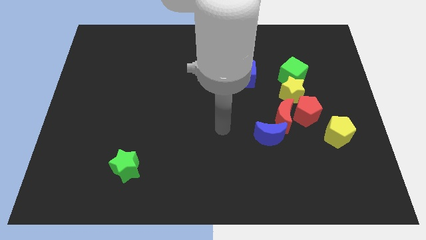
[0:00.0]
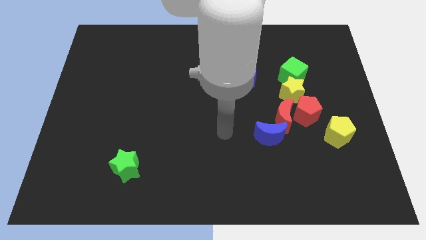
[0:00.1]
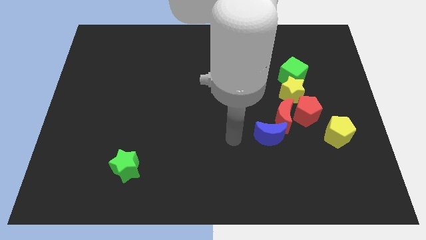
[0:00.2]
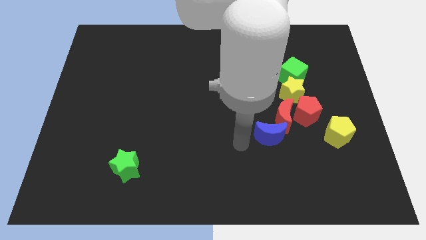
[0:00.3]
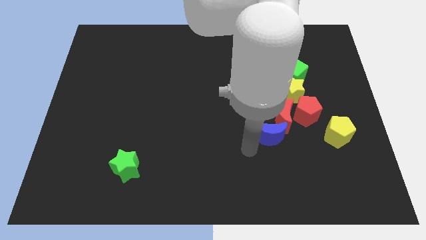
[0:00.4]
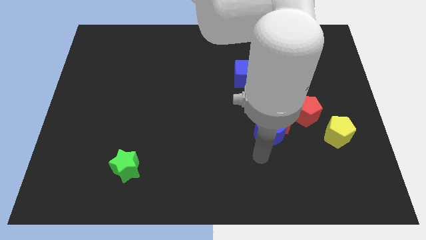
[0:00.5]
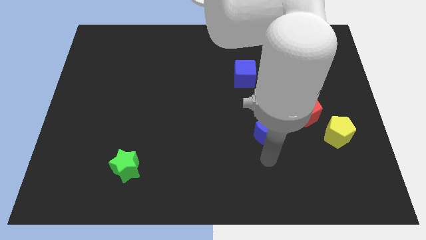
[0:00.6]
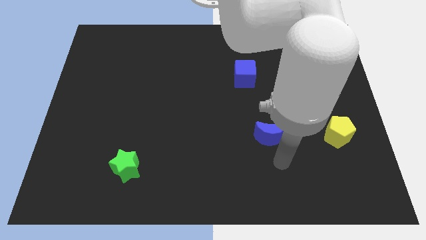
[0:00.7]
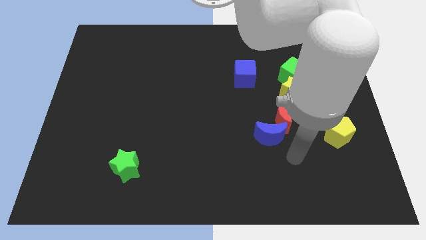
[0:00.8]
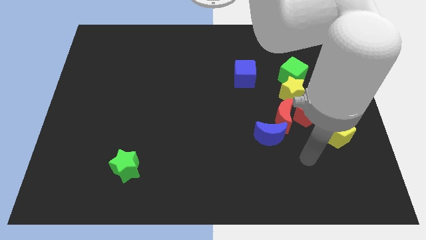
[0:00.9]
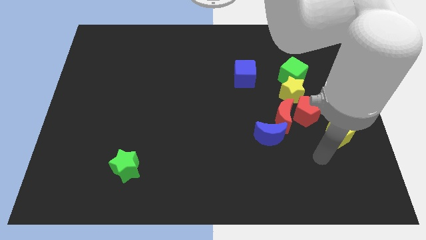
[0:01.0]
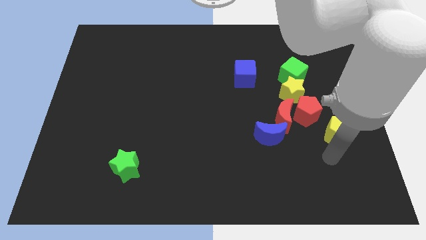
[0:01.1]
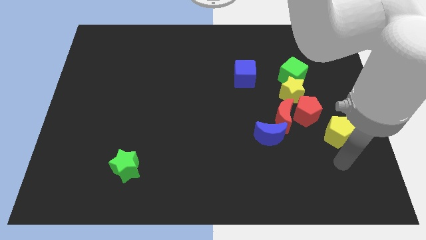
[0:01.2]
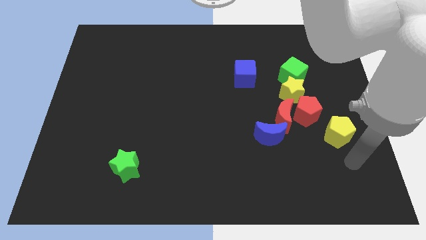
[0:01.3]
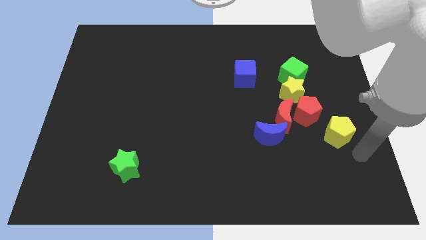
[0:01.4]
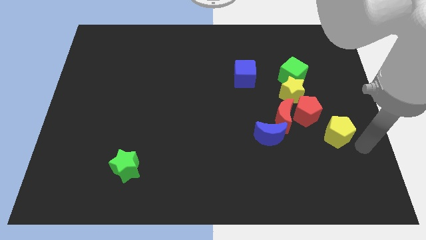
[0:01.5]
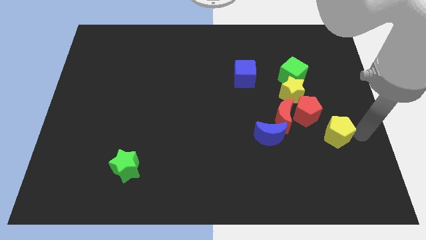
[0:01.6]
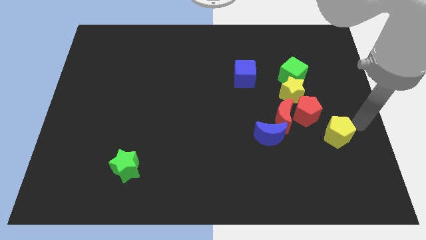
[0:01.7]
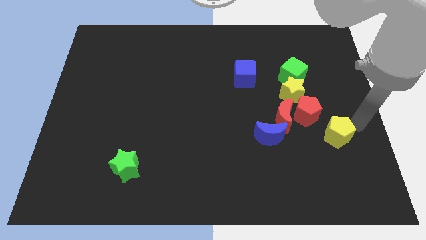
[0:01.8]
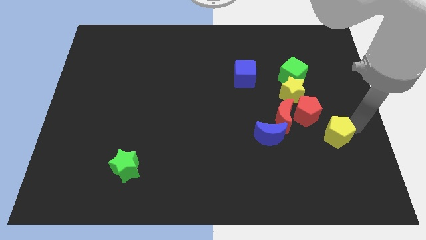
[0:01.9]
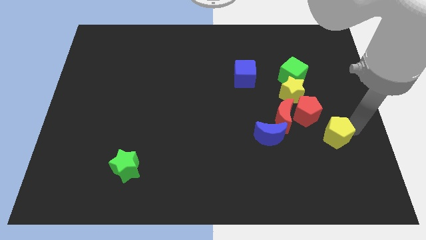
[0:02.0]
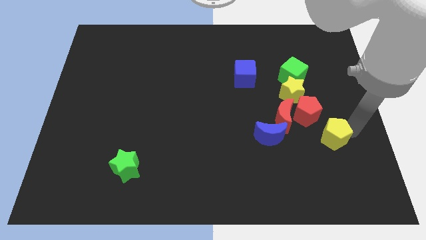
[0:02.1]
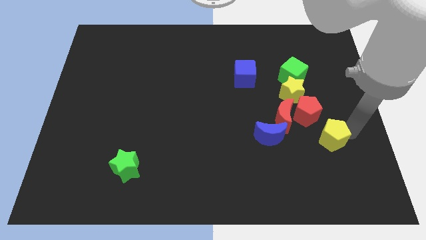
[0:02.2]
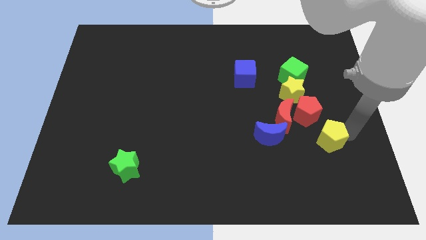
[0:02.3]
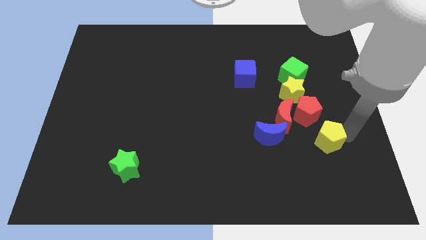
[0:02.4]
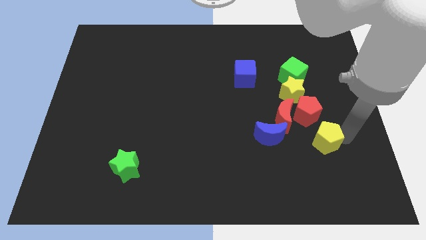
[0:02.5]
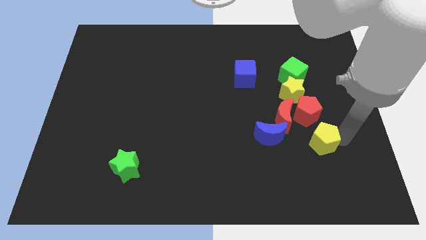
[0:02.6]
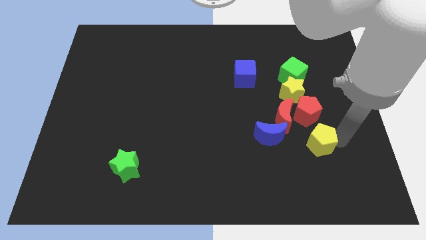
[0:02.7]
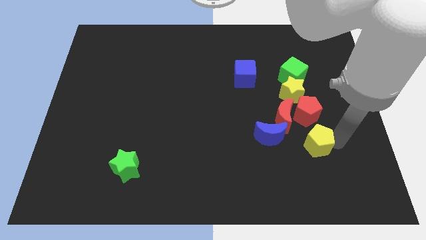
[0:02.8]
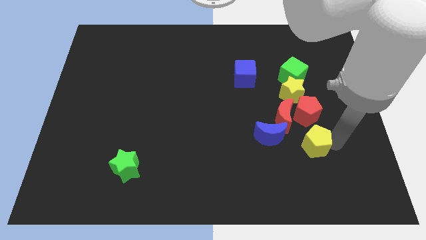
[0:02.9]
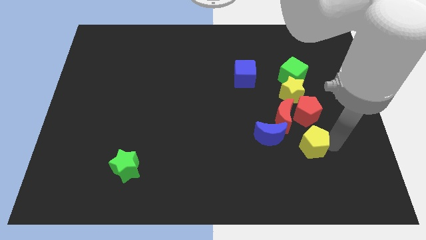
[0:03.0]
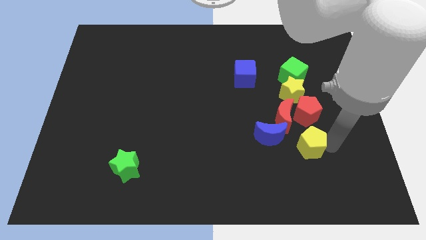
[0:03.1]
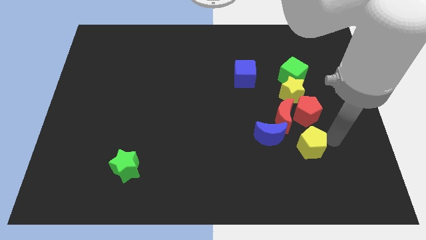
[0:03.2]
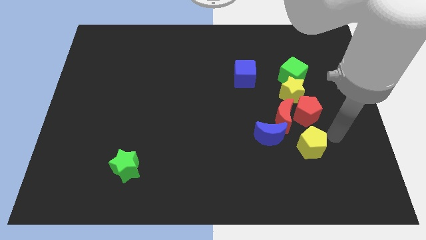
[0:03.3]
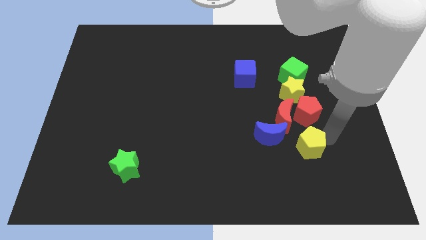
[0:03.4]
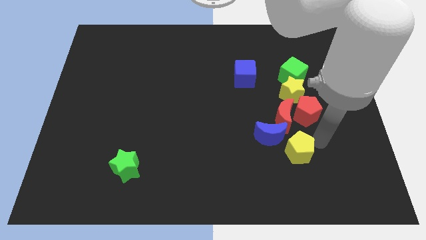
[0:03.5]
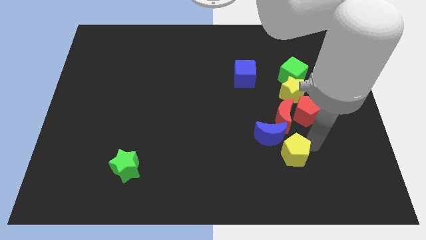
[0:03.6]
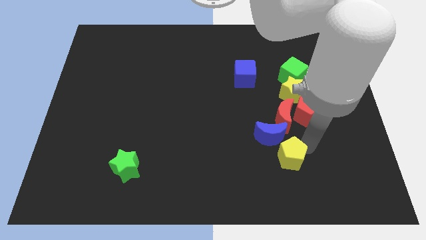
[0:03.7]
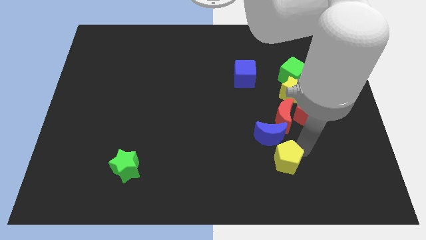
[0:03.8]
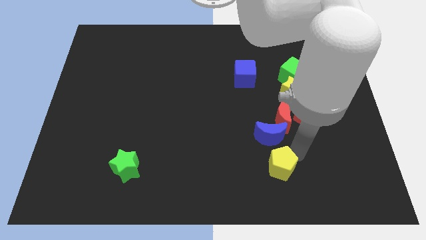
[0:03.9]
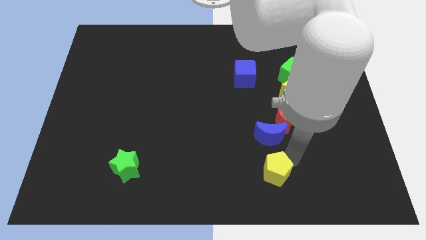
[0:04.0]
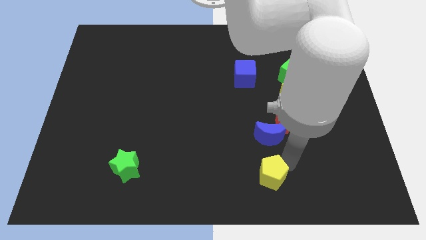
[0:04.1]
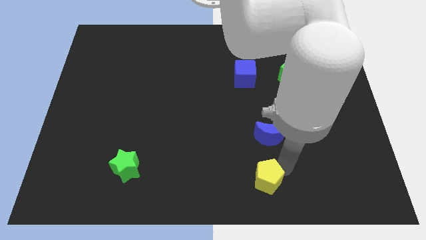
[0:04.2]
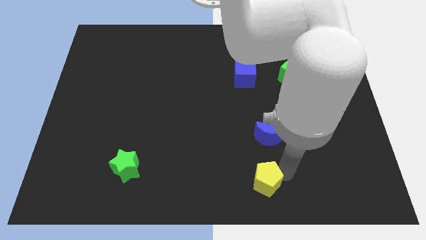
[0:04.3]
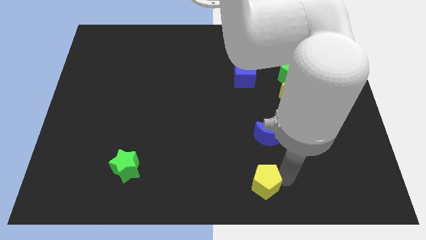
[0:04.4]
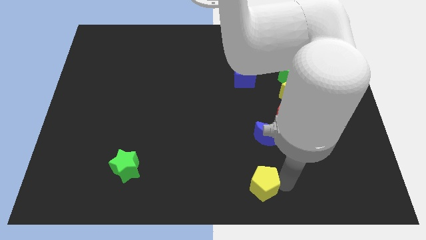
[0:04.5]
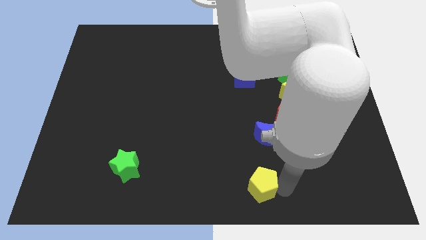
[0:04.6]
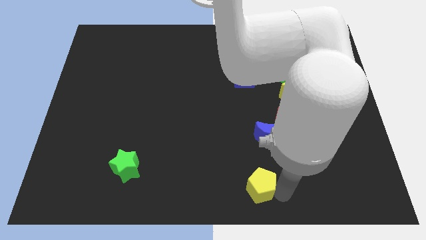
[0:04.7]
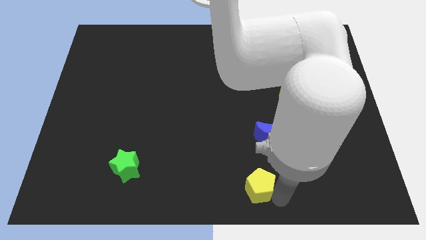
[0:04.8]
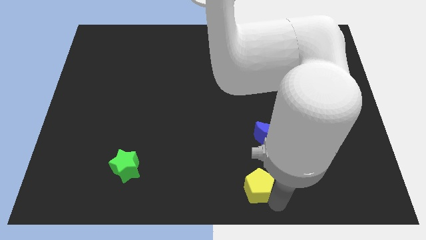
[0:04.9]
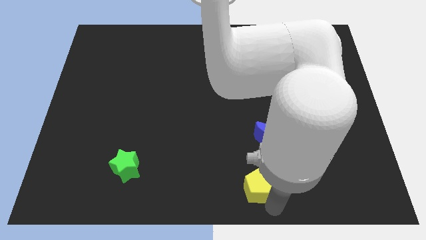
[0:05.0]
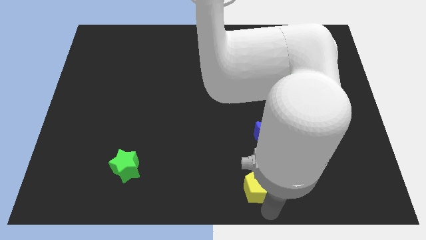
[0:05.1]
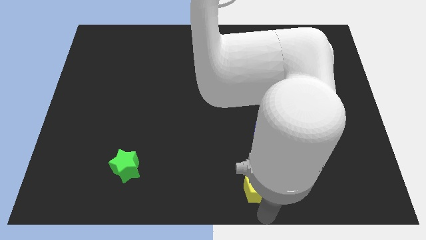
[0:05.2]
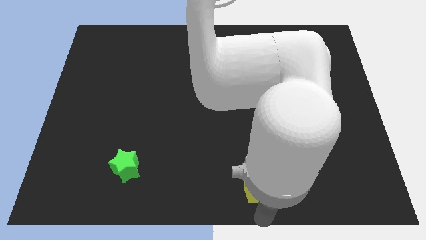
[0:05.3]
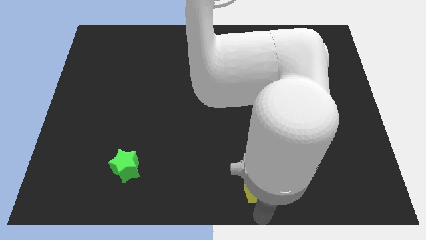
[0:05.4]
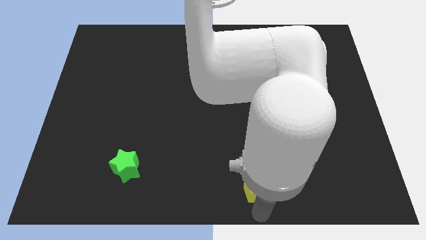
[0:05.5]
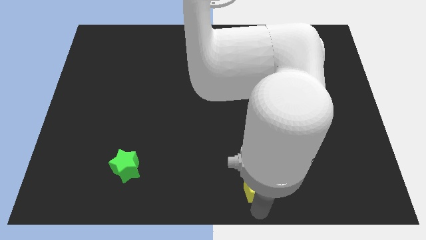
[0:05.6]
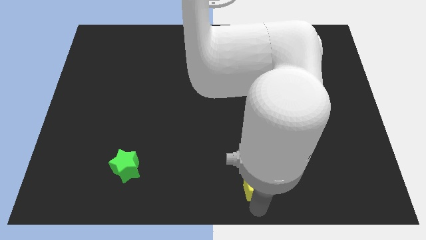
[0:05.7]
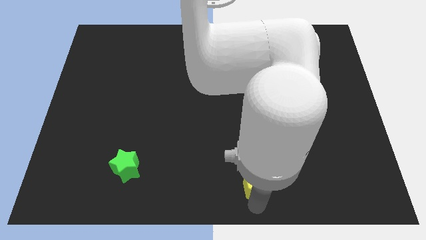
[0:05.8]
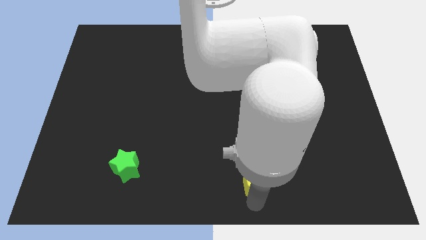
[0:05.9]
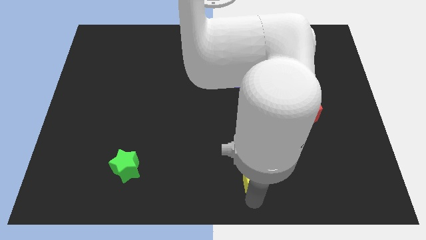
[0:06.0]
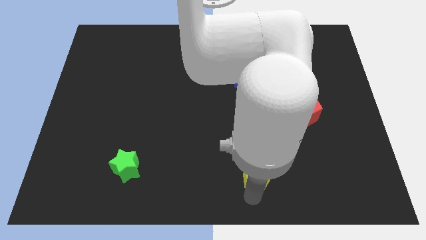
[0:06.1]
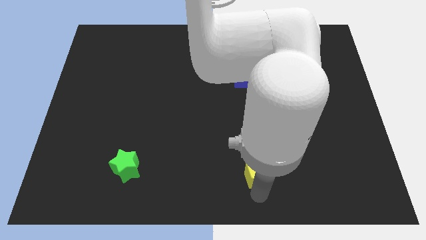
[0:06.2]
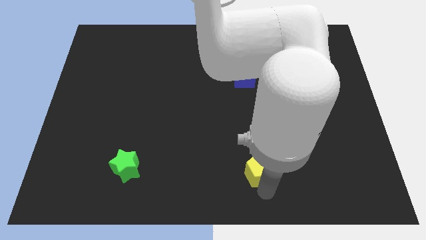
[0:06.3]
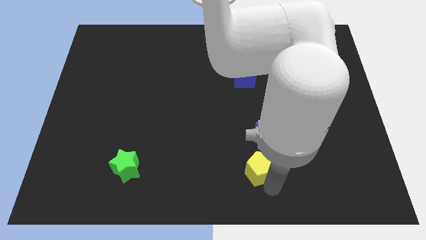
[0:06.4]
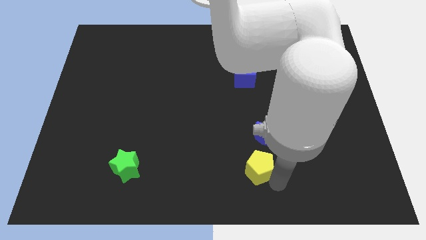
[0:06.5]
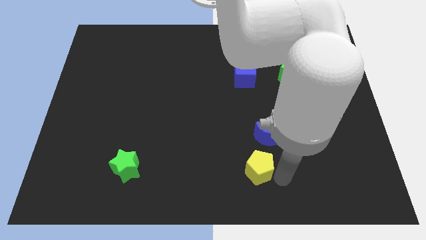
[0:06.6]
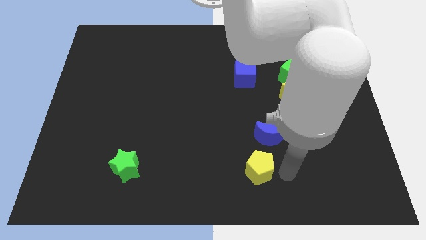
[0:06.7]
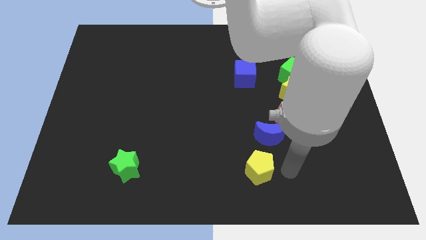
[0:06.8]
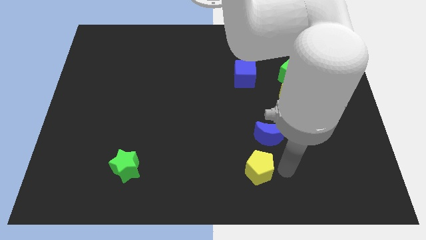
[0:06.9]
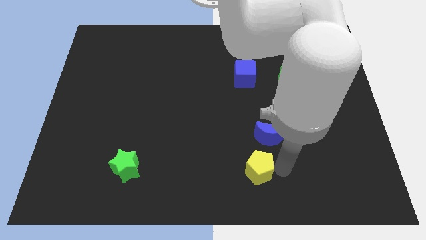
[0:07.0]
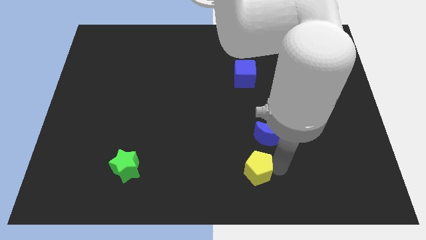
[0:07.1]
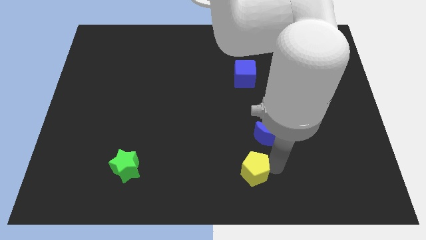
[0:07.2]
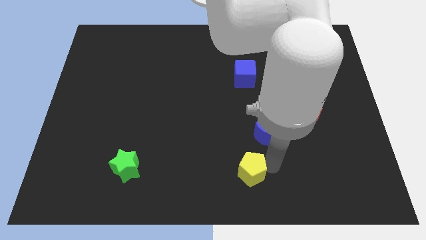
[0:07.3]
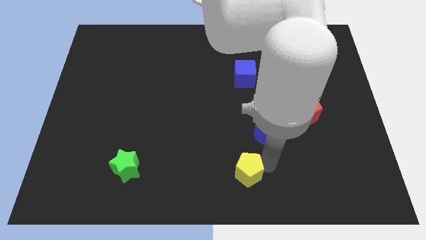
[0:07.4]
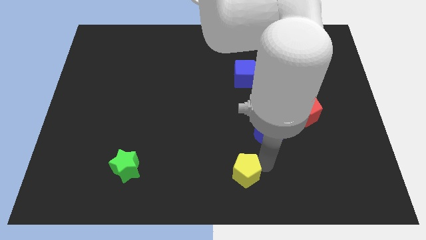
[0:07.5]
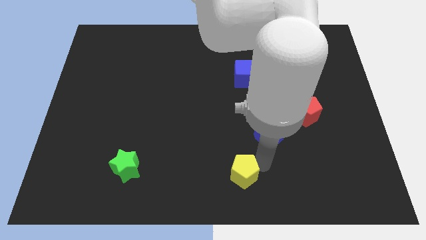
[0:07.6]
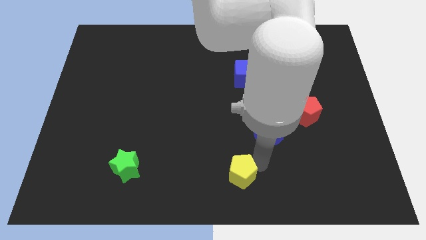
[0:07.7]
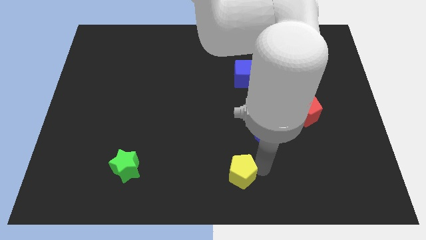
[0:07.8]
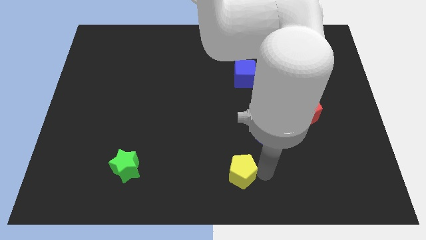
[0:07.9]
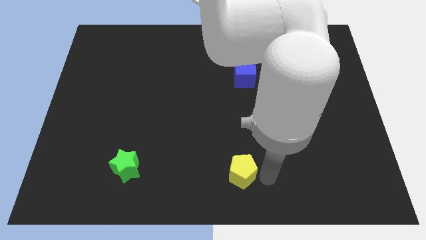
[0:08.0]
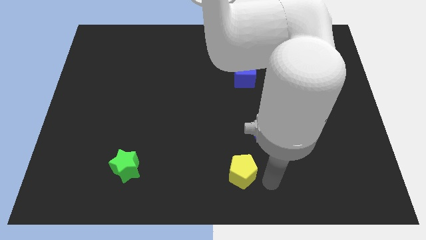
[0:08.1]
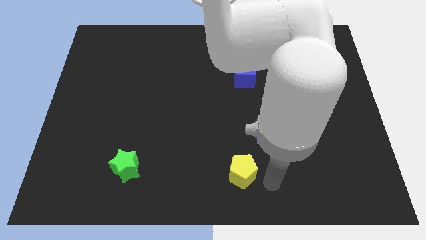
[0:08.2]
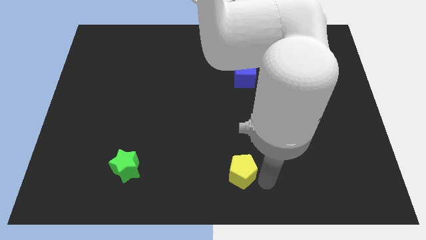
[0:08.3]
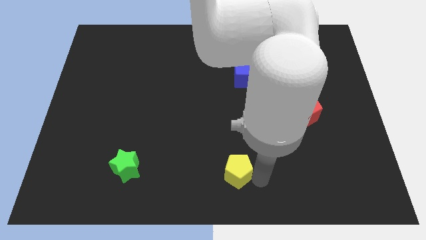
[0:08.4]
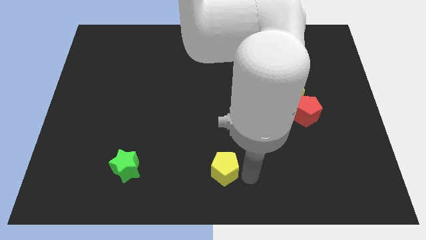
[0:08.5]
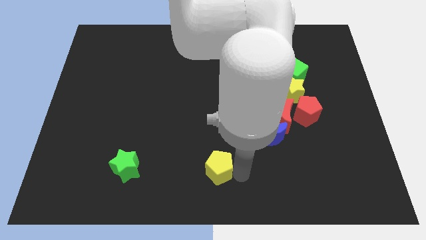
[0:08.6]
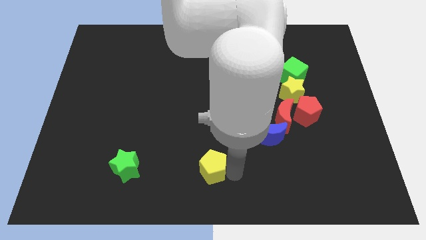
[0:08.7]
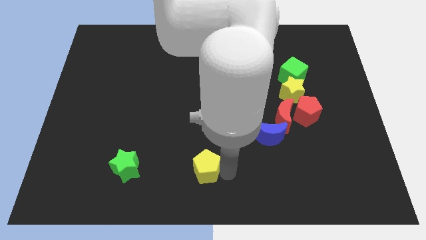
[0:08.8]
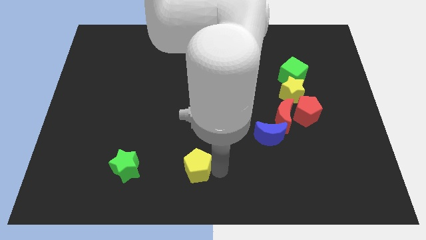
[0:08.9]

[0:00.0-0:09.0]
slide the yellow pentagon to the right of the green star
